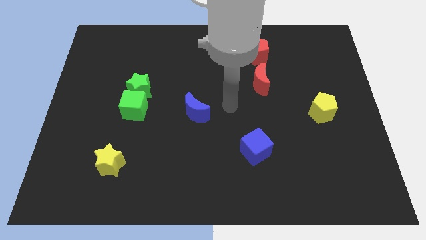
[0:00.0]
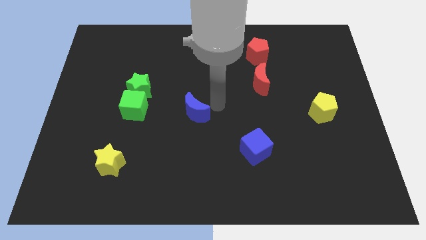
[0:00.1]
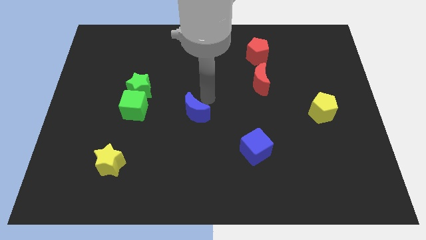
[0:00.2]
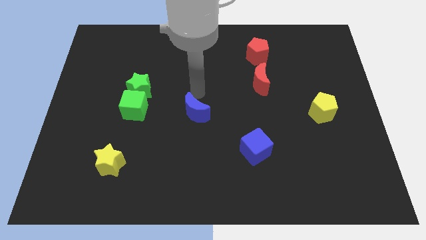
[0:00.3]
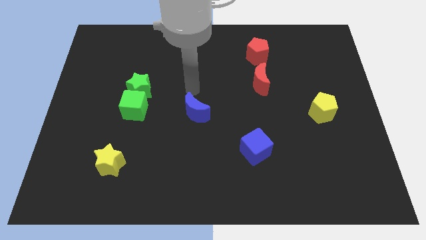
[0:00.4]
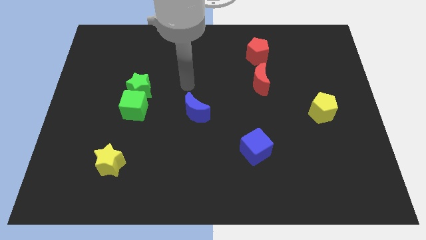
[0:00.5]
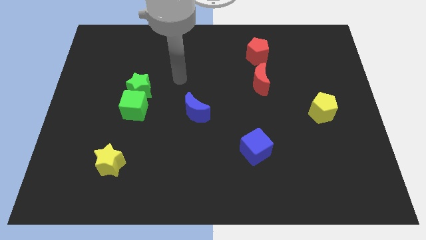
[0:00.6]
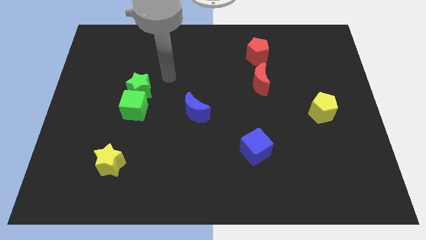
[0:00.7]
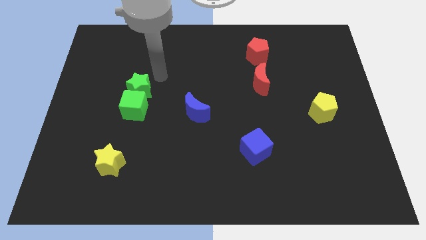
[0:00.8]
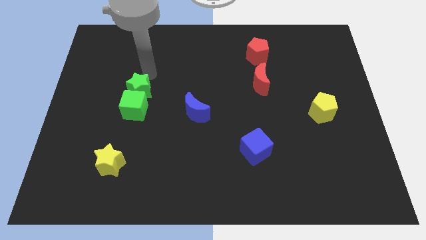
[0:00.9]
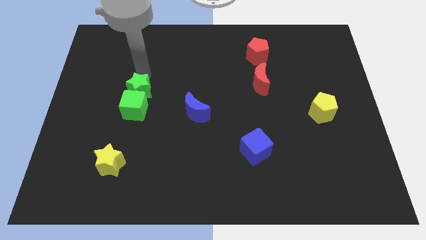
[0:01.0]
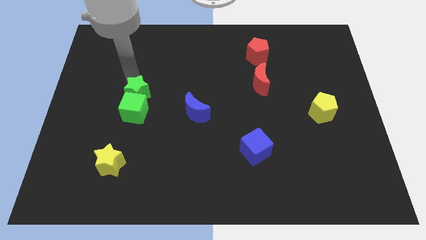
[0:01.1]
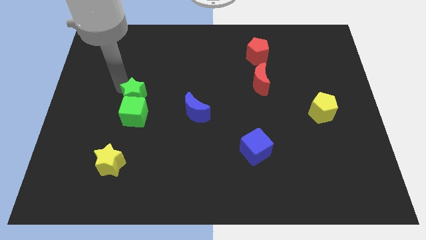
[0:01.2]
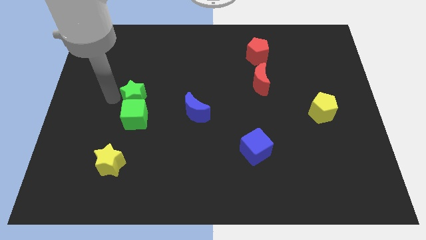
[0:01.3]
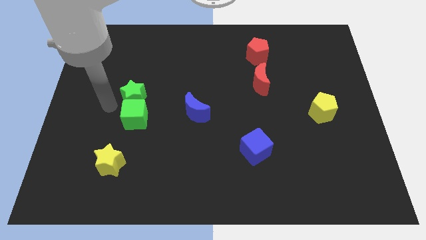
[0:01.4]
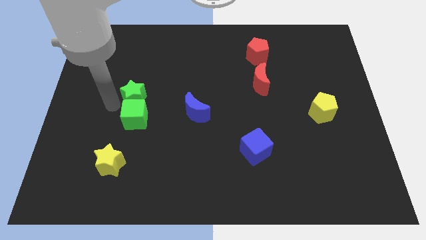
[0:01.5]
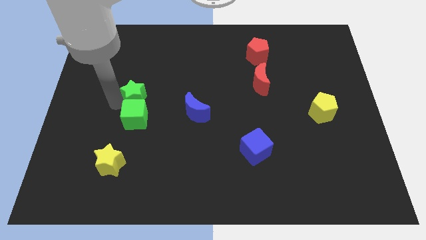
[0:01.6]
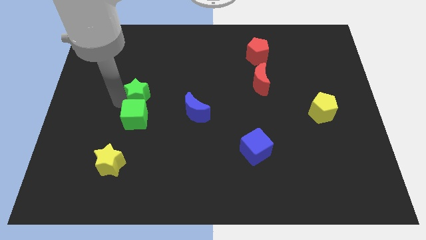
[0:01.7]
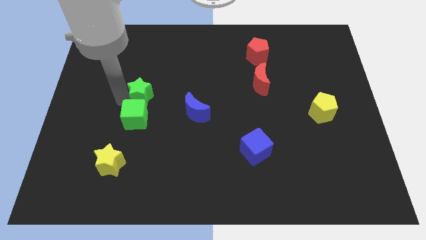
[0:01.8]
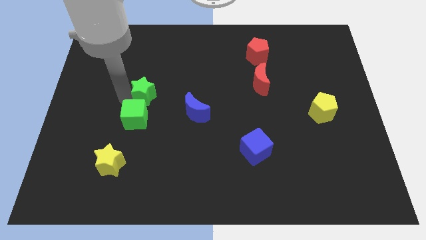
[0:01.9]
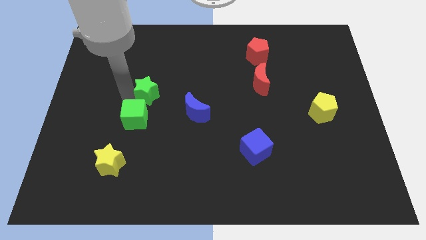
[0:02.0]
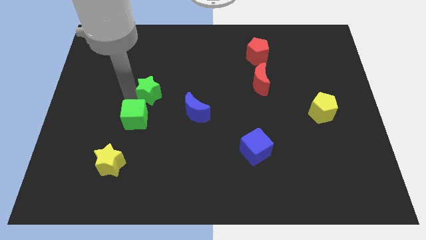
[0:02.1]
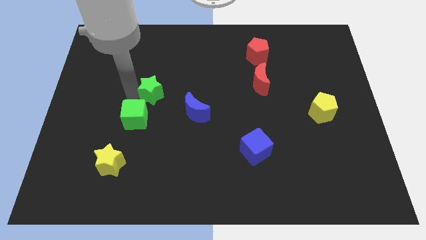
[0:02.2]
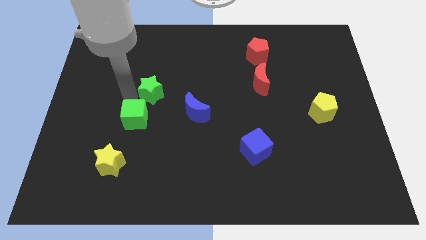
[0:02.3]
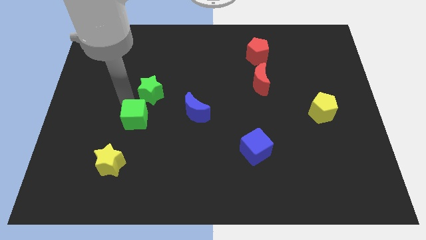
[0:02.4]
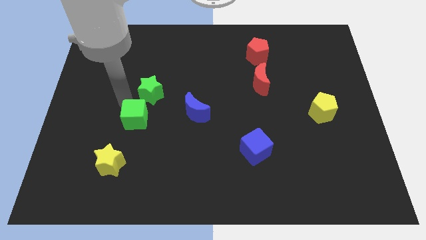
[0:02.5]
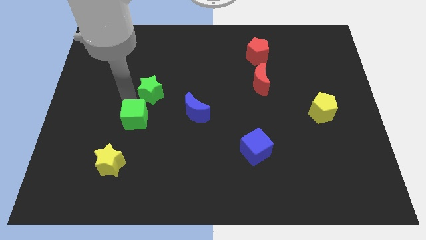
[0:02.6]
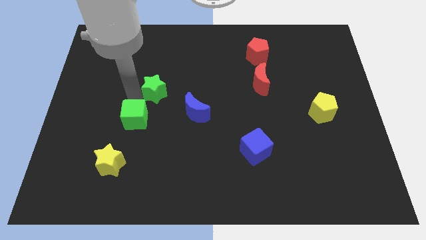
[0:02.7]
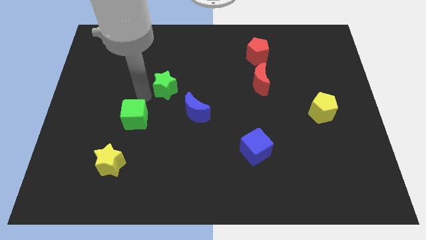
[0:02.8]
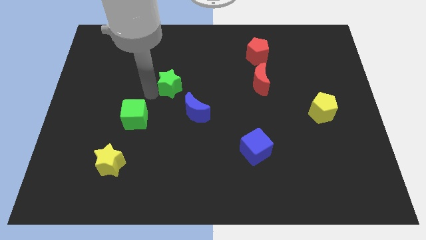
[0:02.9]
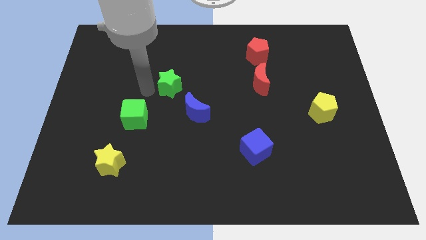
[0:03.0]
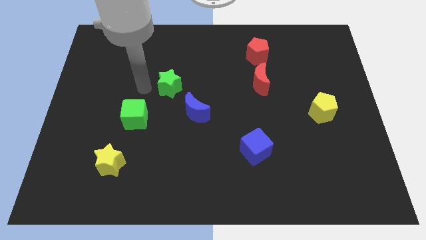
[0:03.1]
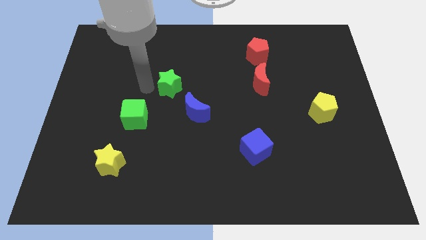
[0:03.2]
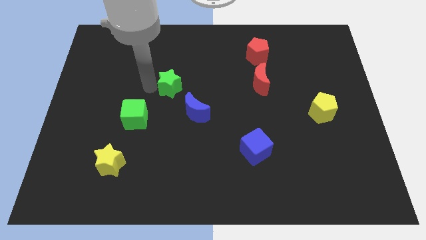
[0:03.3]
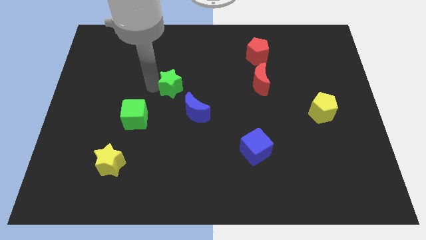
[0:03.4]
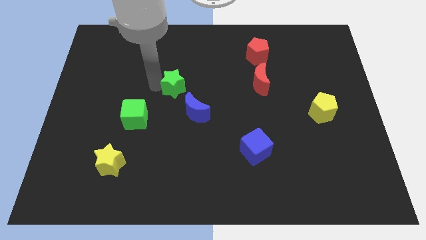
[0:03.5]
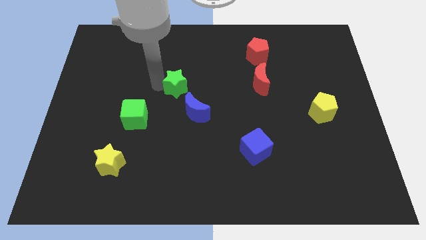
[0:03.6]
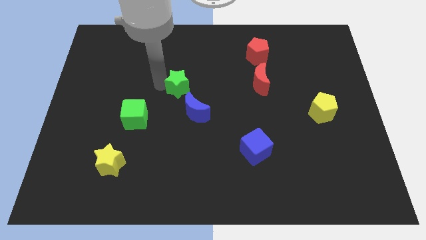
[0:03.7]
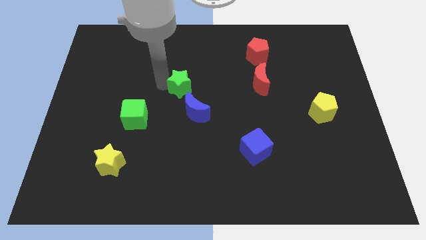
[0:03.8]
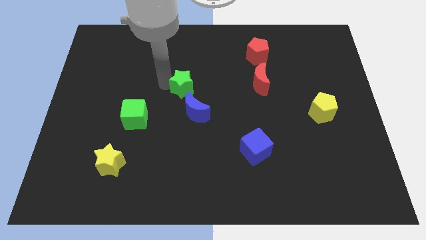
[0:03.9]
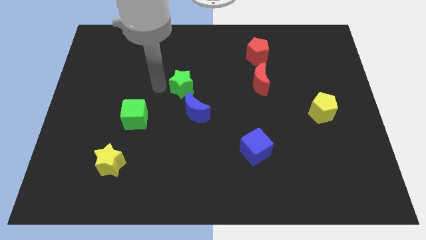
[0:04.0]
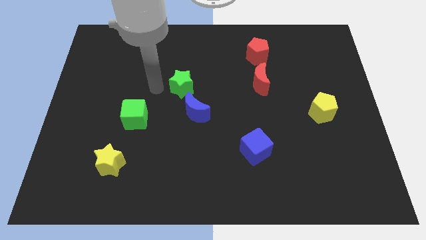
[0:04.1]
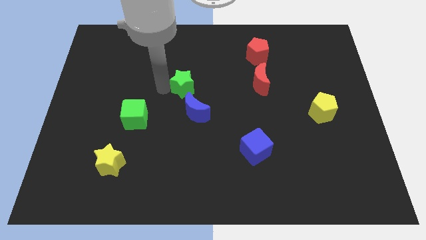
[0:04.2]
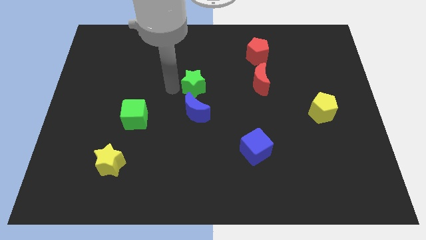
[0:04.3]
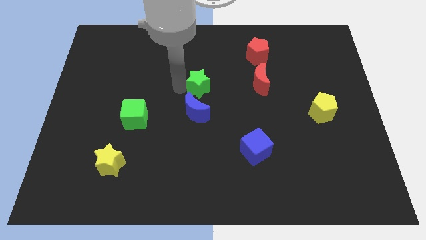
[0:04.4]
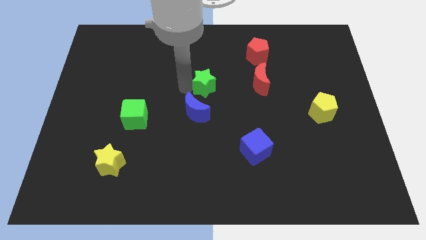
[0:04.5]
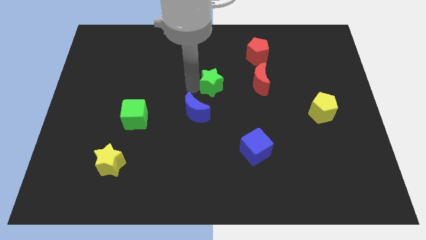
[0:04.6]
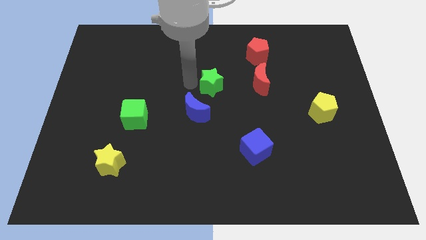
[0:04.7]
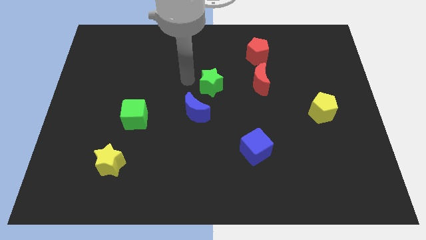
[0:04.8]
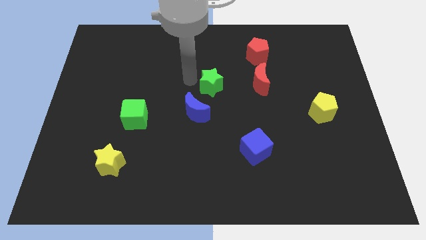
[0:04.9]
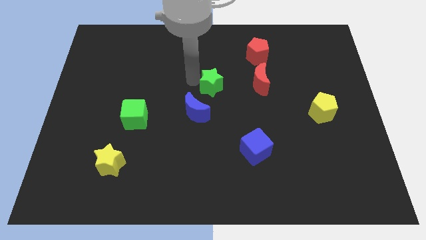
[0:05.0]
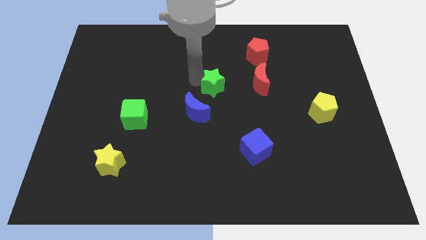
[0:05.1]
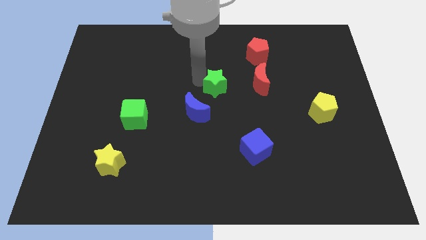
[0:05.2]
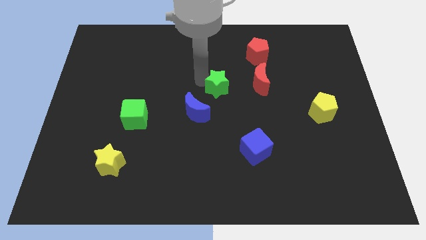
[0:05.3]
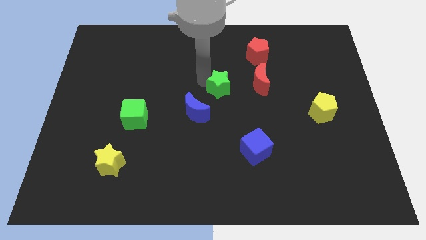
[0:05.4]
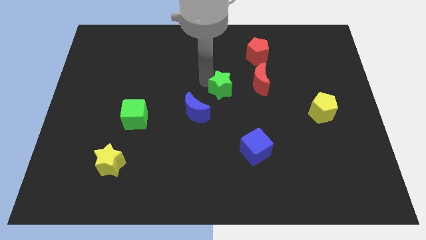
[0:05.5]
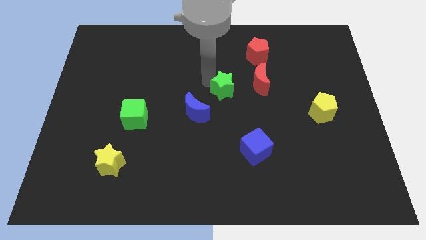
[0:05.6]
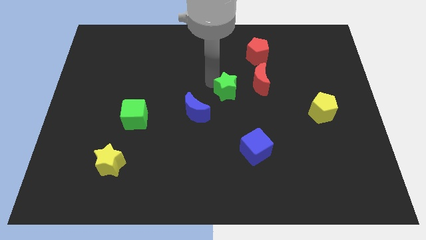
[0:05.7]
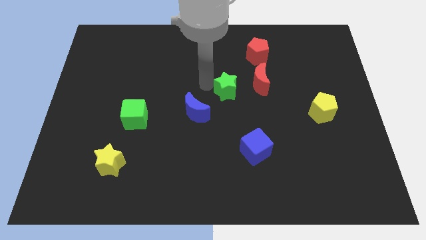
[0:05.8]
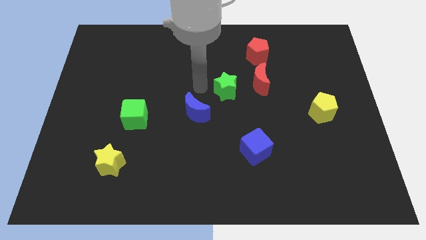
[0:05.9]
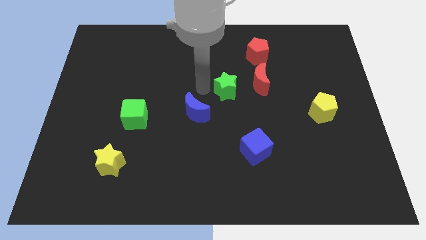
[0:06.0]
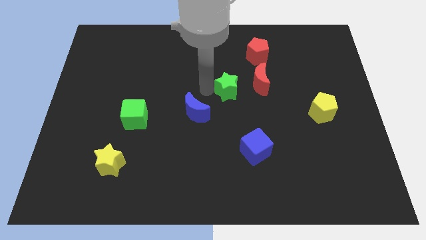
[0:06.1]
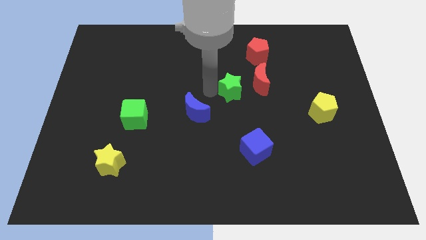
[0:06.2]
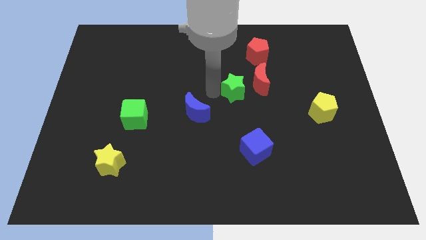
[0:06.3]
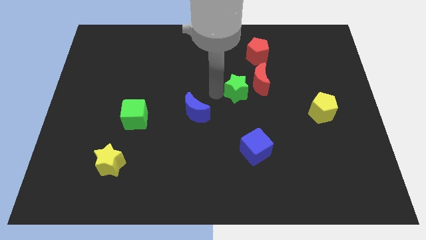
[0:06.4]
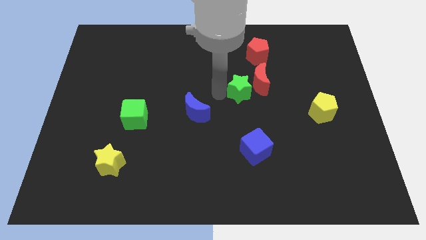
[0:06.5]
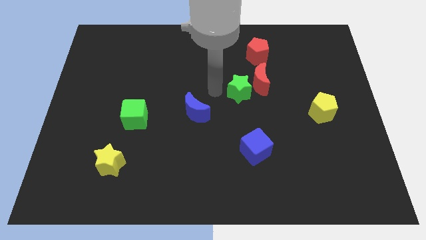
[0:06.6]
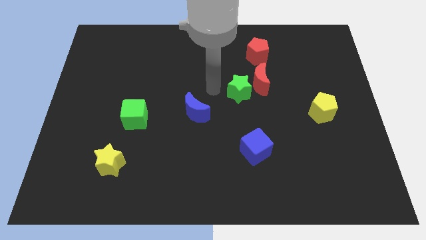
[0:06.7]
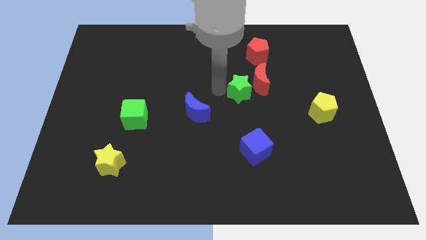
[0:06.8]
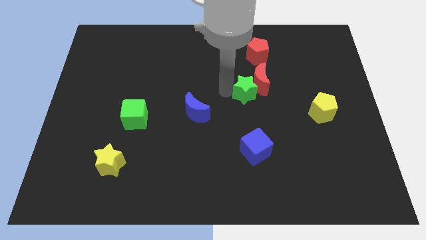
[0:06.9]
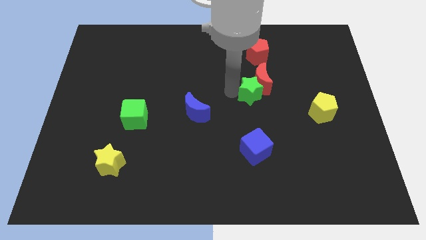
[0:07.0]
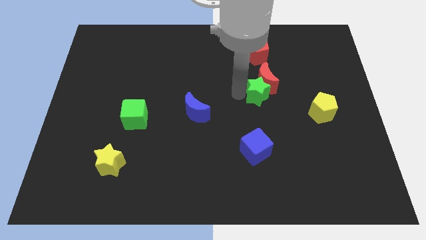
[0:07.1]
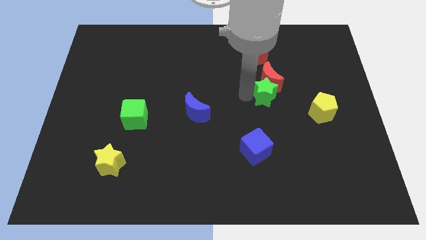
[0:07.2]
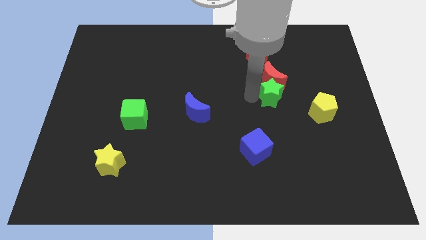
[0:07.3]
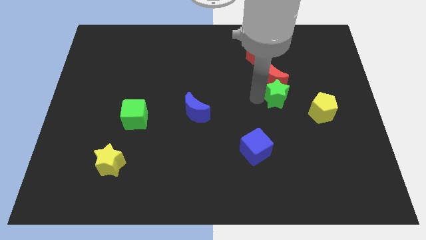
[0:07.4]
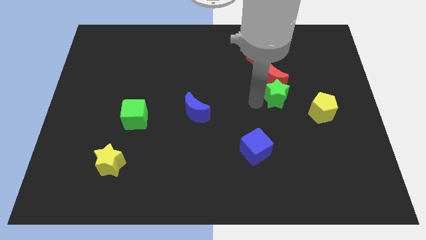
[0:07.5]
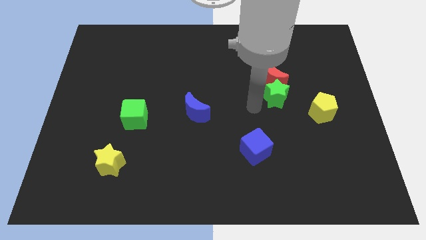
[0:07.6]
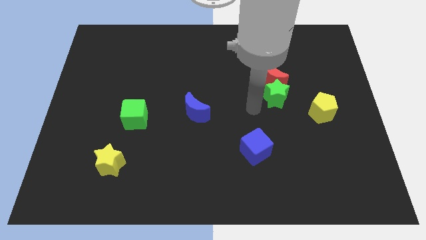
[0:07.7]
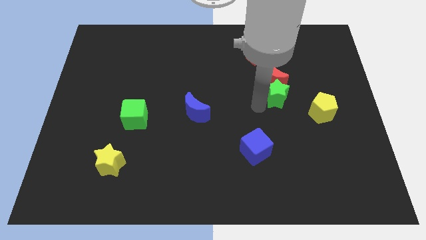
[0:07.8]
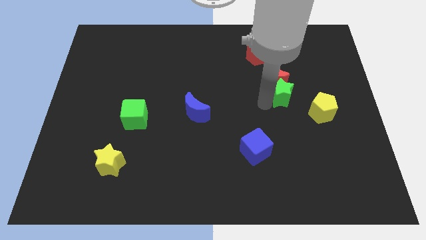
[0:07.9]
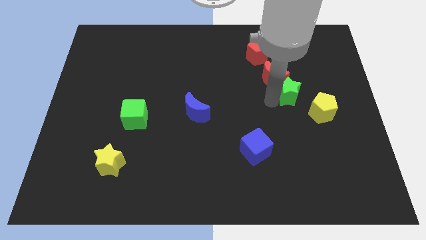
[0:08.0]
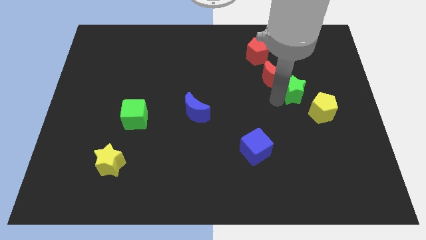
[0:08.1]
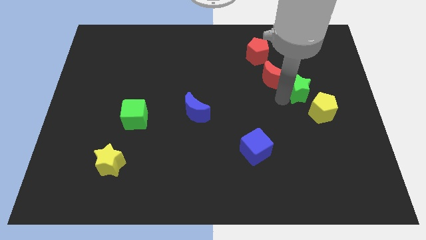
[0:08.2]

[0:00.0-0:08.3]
move the green star to the top of the yellow pentagon
